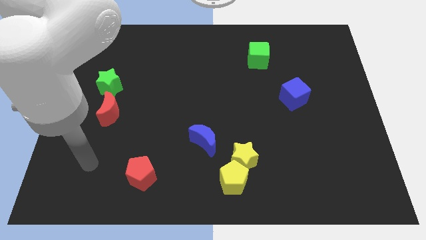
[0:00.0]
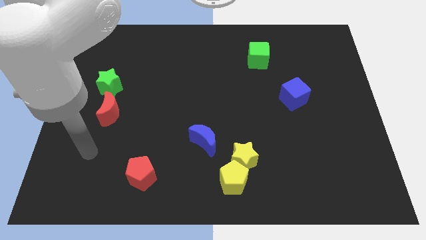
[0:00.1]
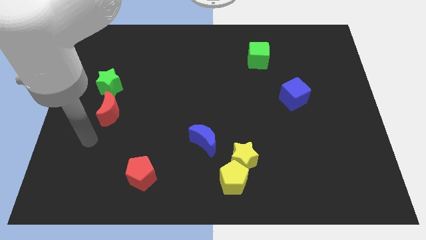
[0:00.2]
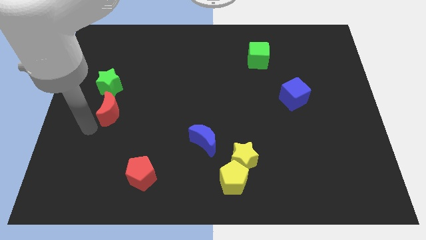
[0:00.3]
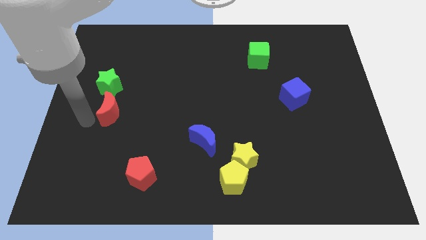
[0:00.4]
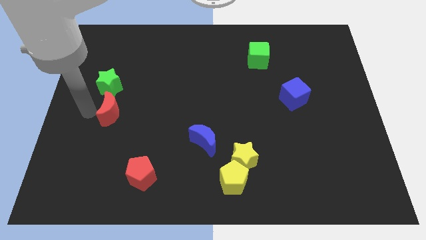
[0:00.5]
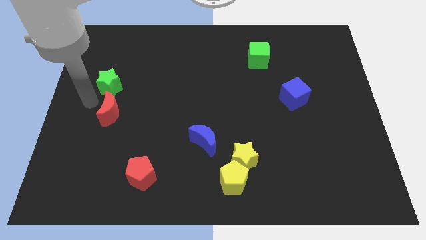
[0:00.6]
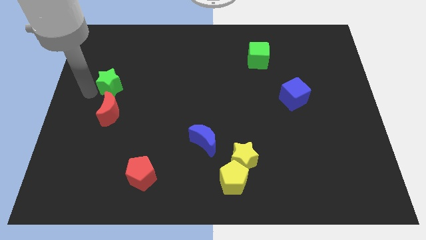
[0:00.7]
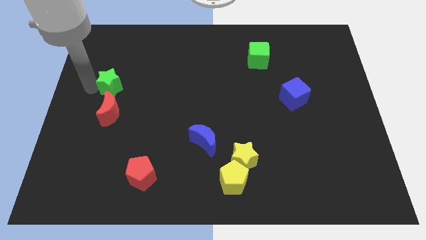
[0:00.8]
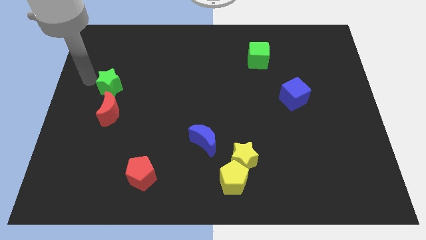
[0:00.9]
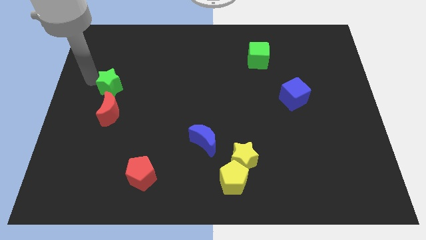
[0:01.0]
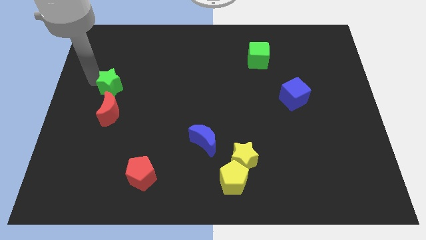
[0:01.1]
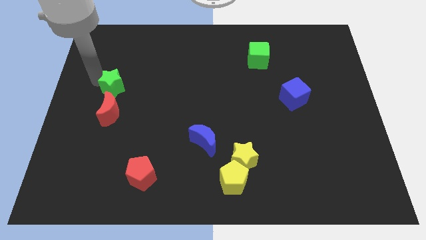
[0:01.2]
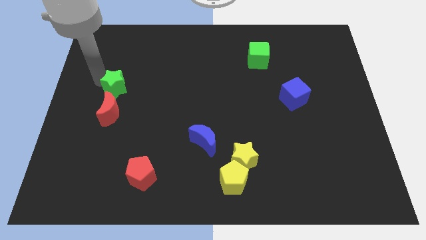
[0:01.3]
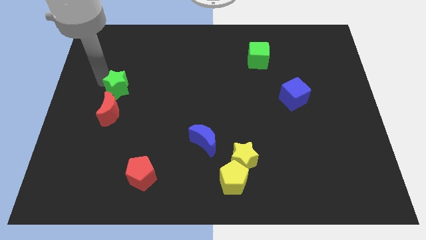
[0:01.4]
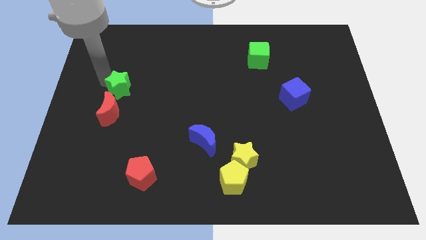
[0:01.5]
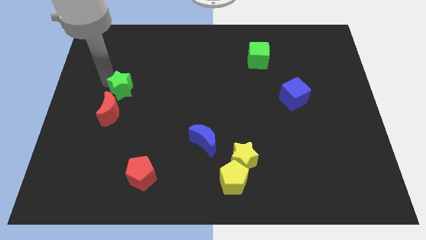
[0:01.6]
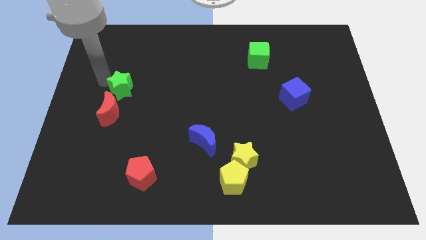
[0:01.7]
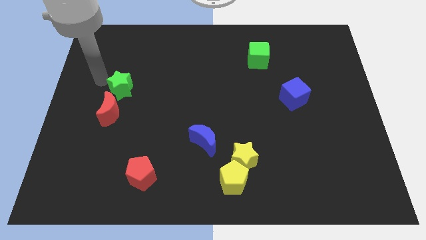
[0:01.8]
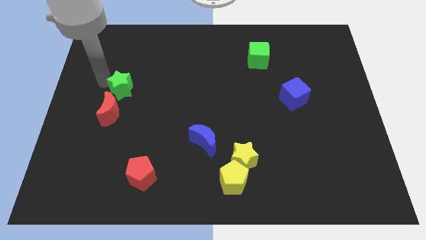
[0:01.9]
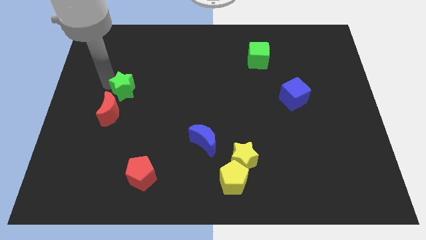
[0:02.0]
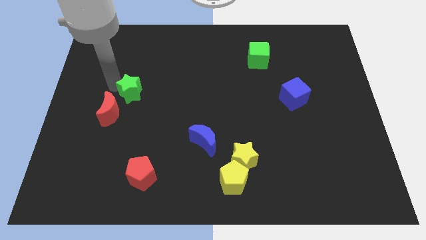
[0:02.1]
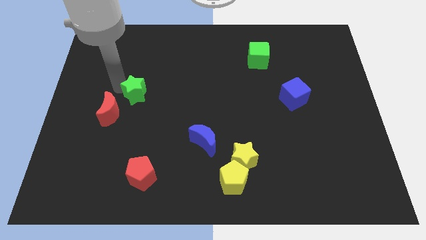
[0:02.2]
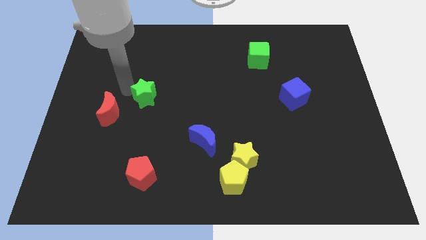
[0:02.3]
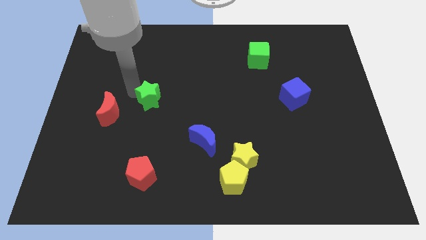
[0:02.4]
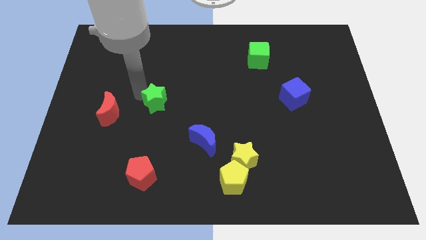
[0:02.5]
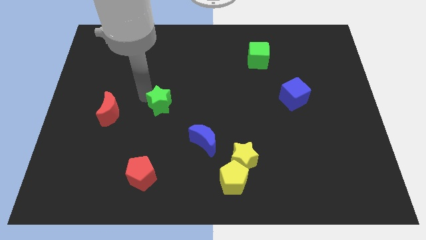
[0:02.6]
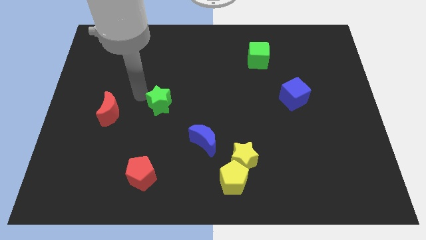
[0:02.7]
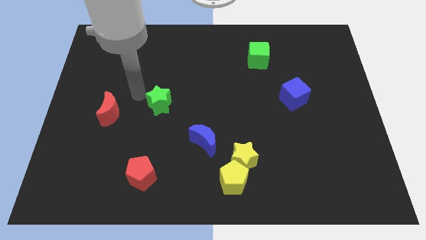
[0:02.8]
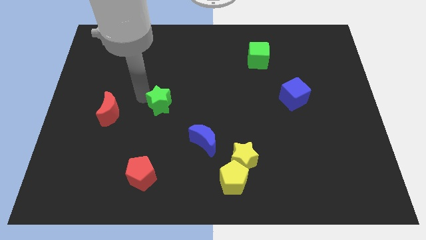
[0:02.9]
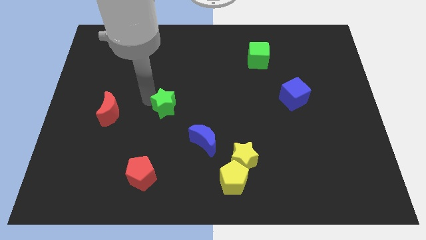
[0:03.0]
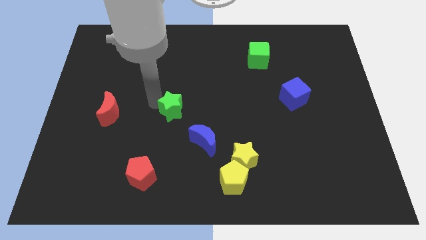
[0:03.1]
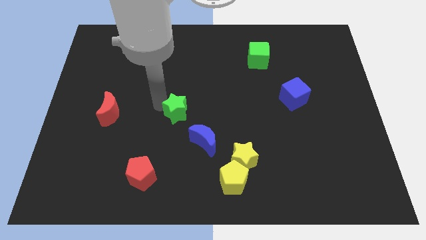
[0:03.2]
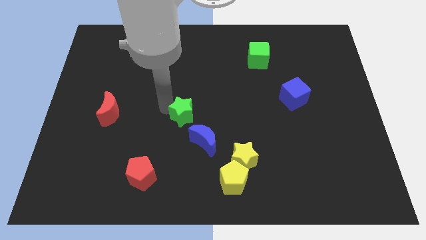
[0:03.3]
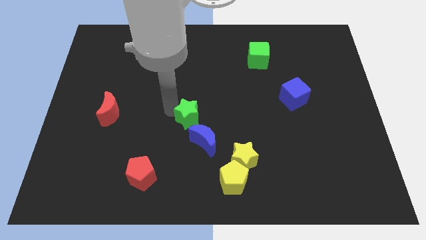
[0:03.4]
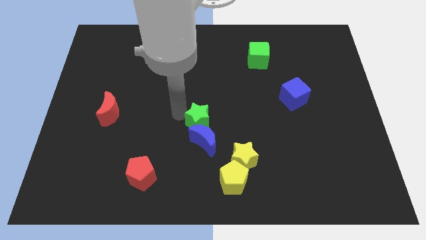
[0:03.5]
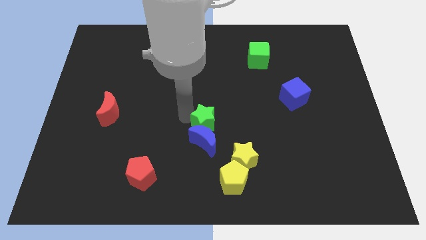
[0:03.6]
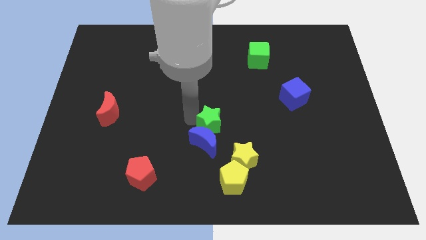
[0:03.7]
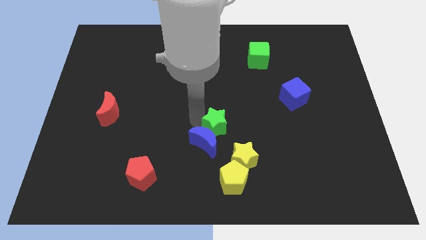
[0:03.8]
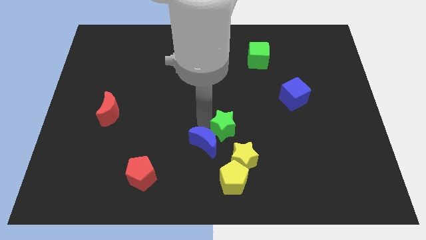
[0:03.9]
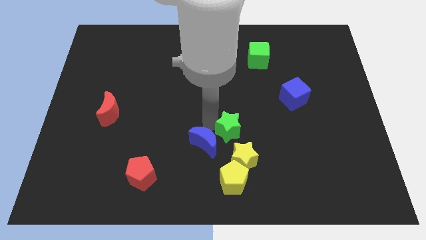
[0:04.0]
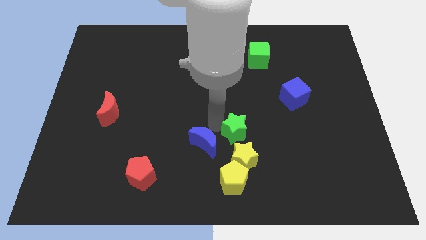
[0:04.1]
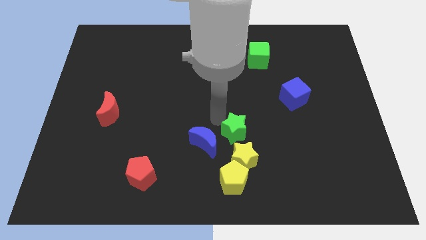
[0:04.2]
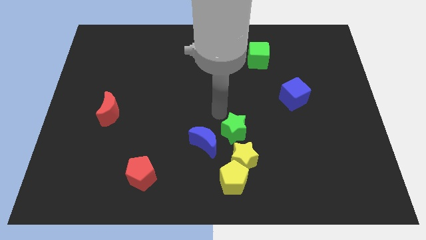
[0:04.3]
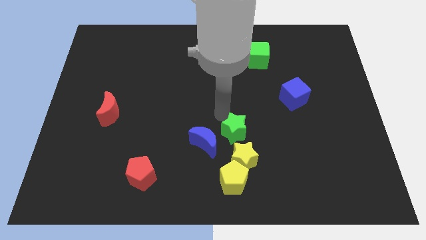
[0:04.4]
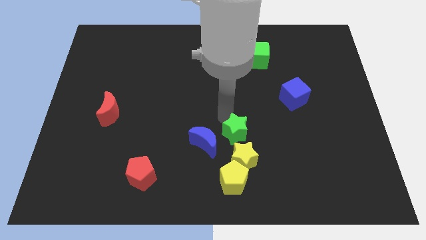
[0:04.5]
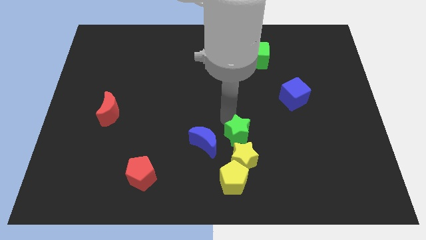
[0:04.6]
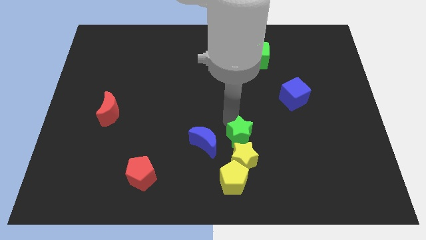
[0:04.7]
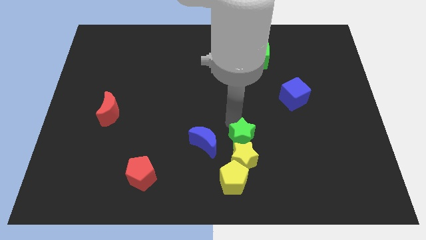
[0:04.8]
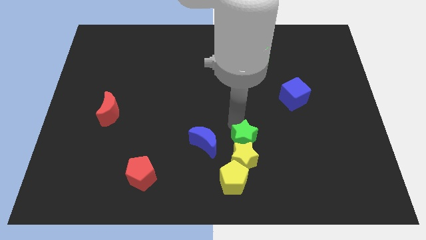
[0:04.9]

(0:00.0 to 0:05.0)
put the green star to the top right side of the yellow pentagon

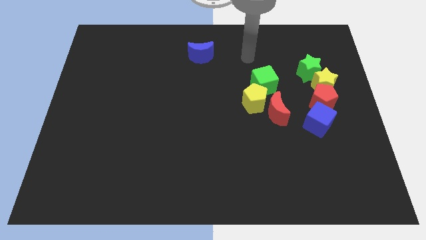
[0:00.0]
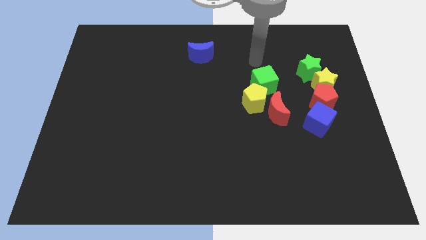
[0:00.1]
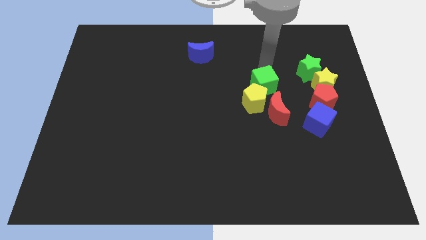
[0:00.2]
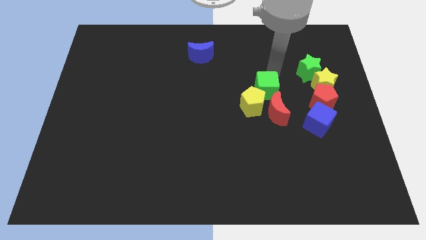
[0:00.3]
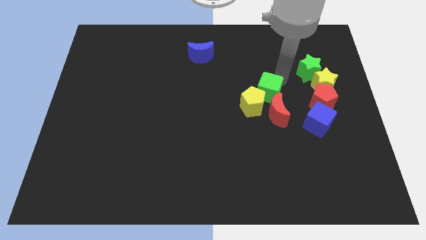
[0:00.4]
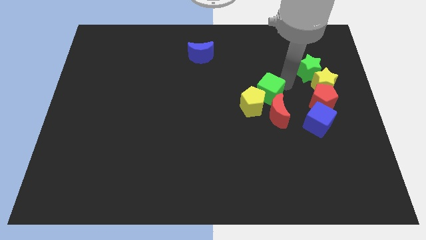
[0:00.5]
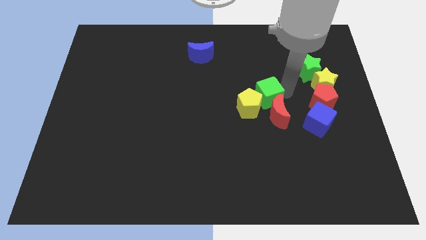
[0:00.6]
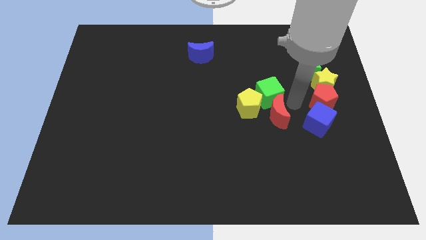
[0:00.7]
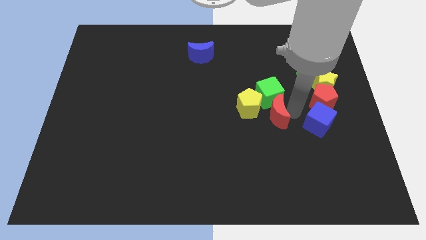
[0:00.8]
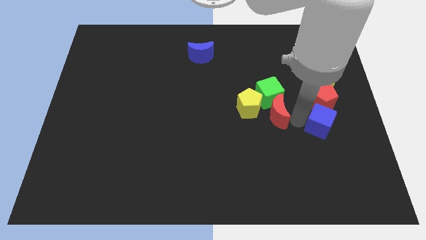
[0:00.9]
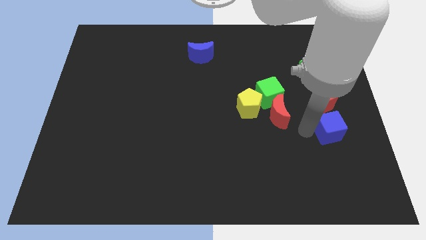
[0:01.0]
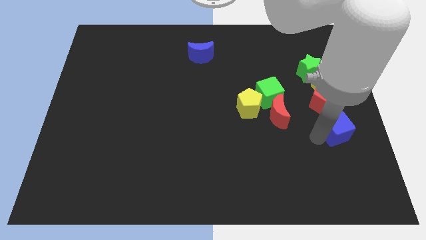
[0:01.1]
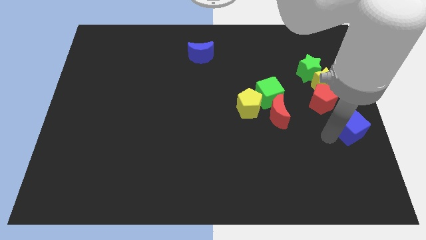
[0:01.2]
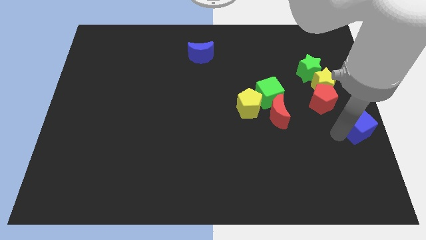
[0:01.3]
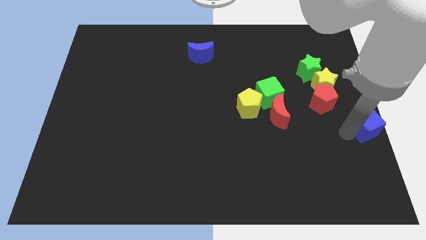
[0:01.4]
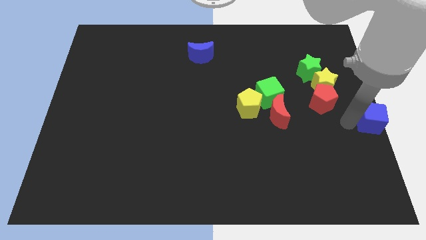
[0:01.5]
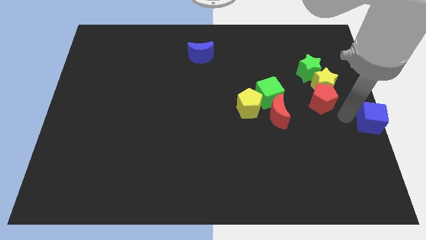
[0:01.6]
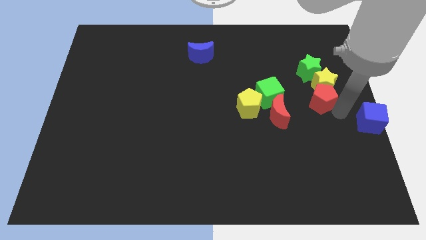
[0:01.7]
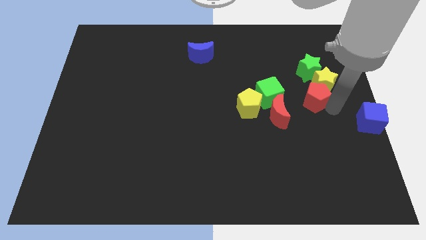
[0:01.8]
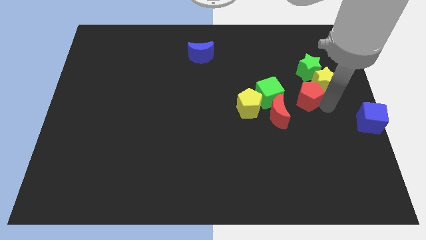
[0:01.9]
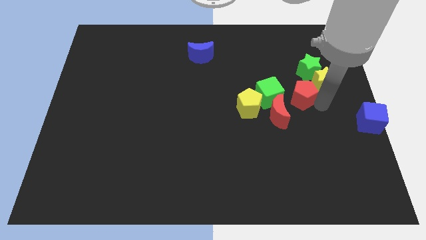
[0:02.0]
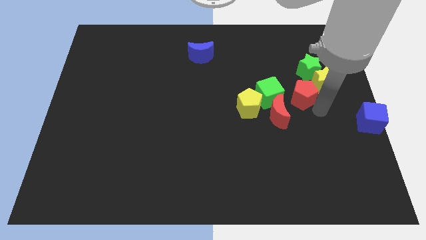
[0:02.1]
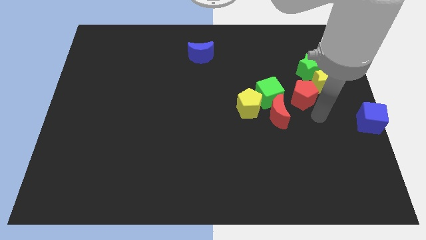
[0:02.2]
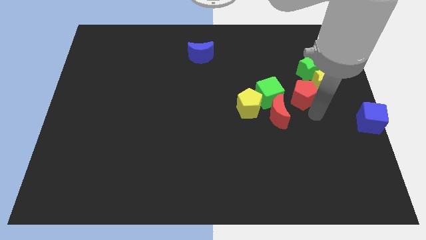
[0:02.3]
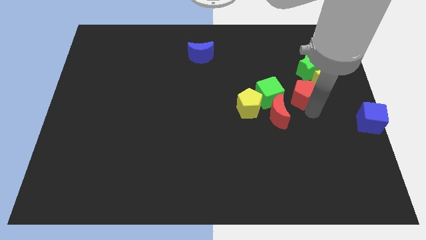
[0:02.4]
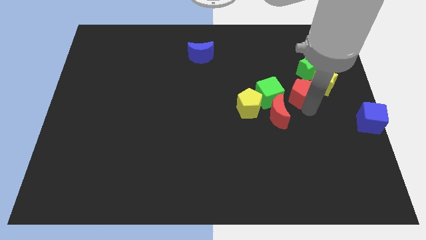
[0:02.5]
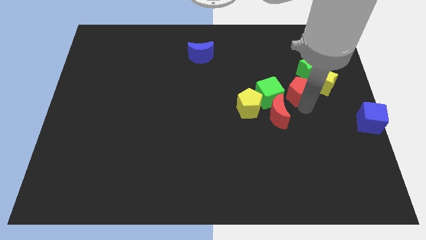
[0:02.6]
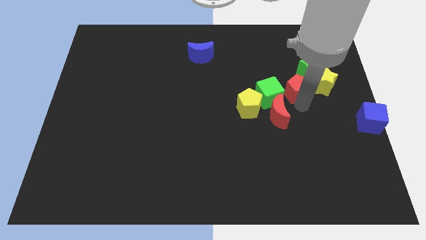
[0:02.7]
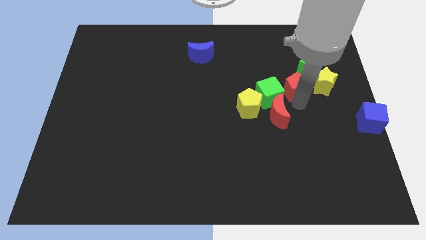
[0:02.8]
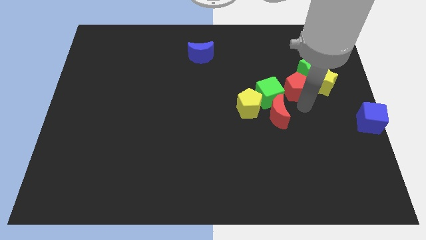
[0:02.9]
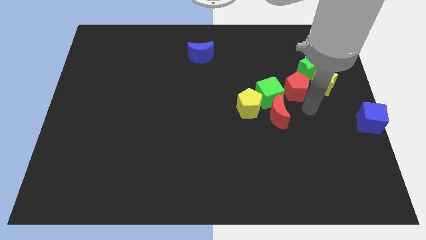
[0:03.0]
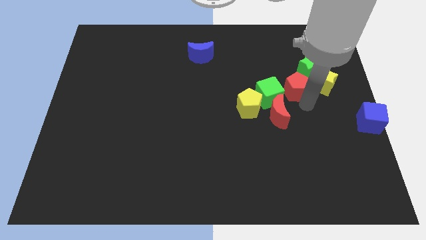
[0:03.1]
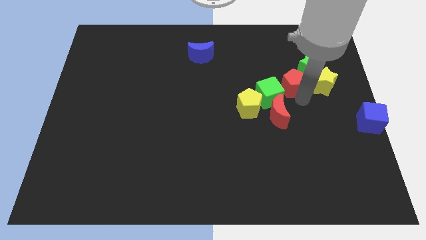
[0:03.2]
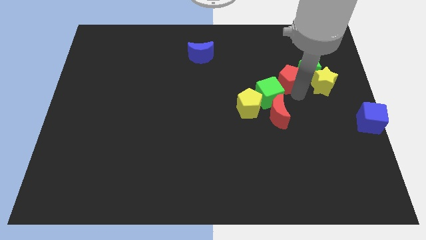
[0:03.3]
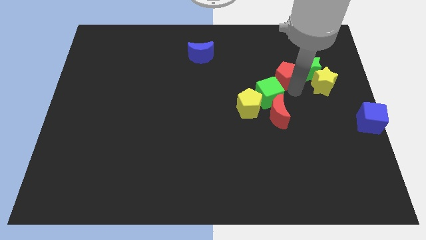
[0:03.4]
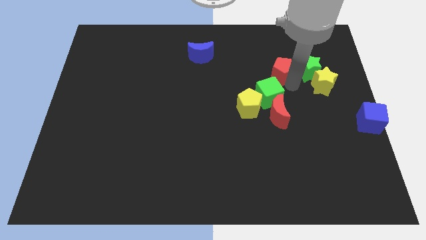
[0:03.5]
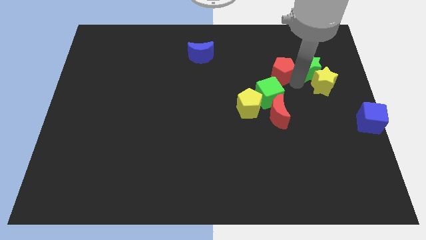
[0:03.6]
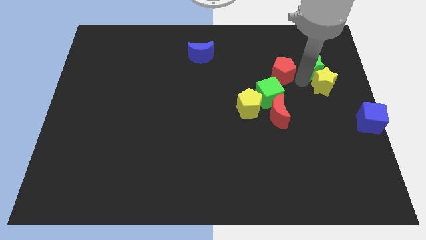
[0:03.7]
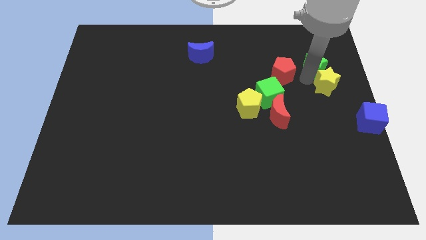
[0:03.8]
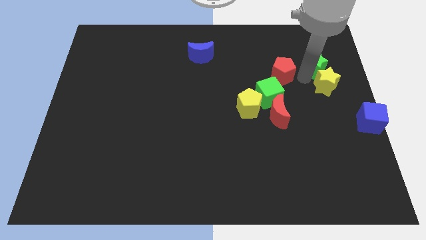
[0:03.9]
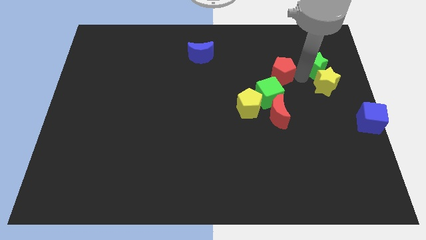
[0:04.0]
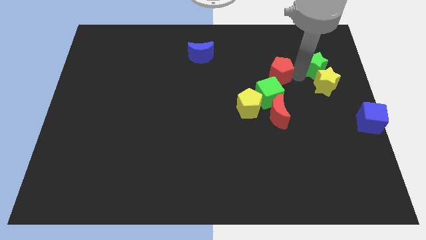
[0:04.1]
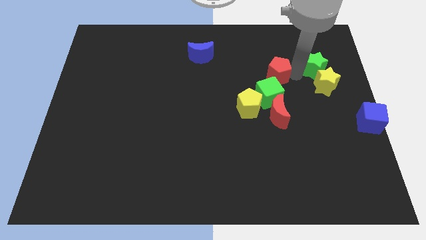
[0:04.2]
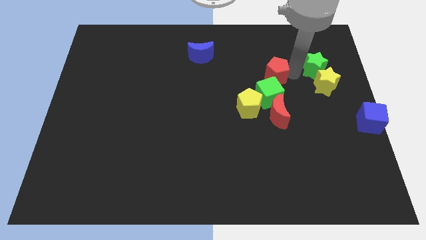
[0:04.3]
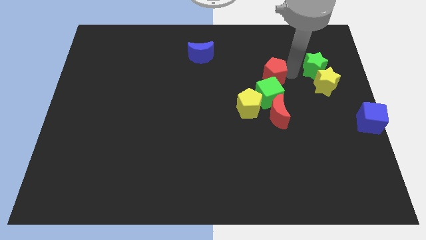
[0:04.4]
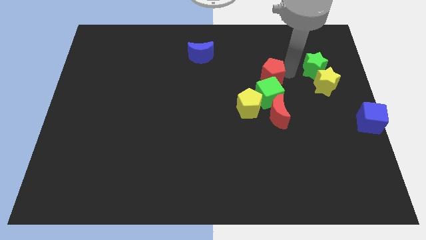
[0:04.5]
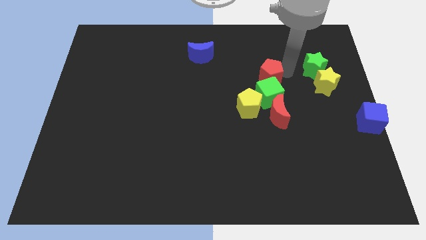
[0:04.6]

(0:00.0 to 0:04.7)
push the red pentagon diagonally up and to the left of the green cube
